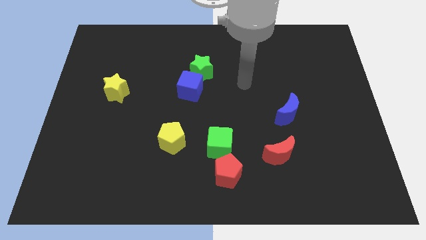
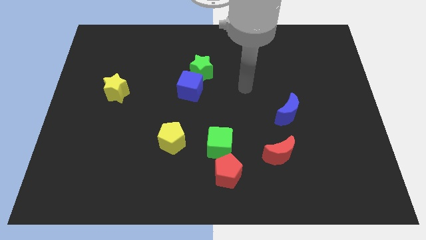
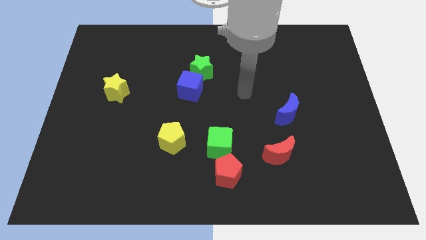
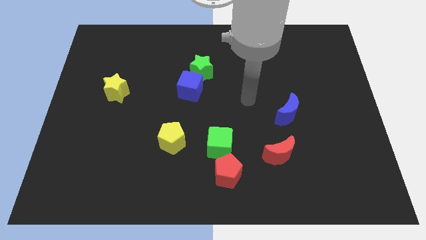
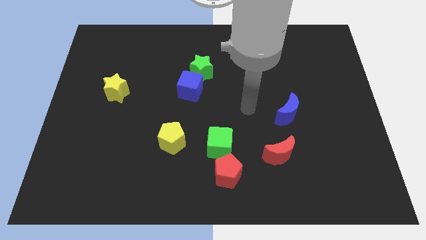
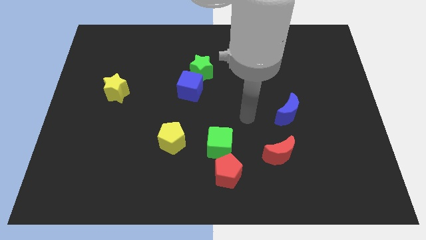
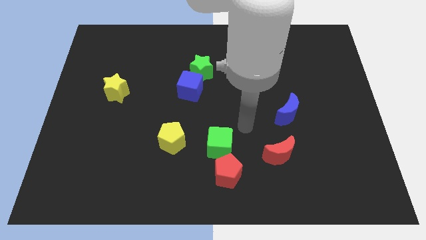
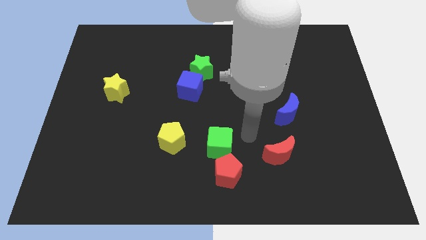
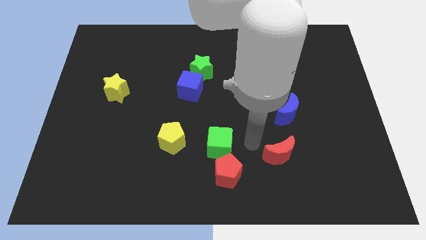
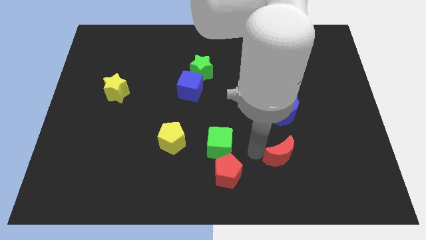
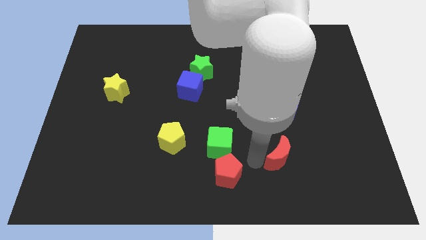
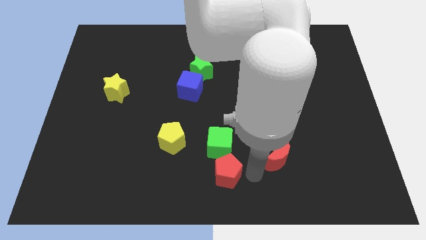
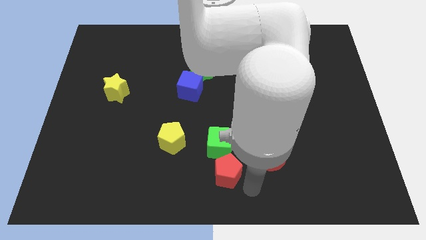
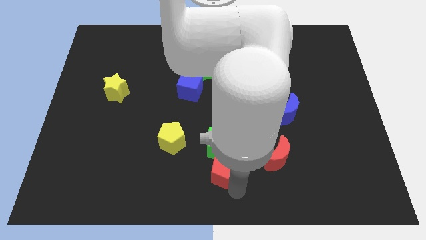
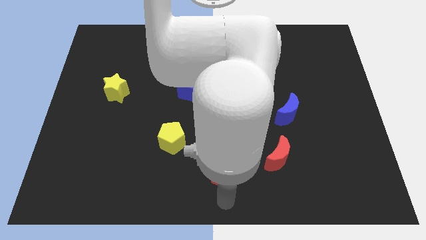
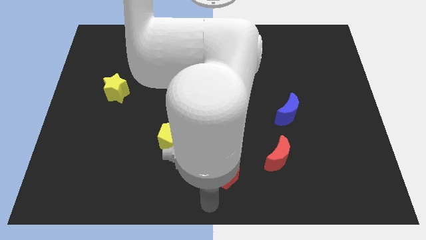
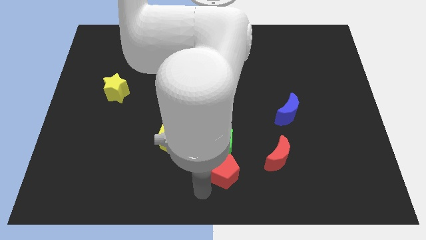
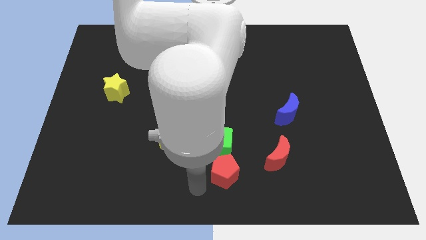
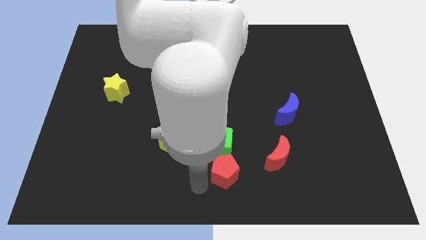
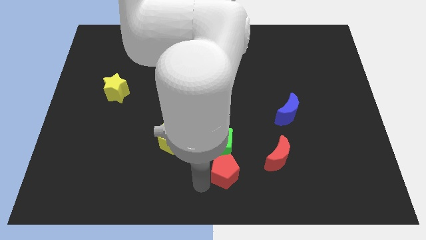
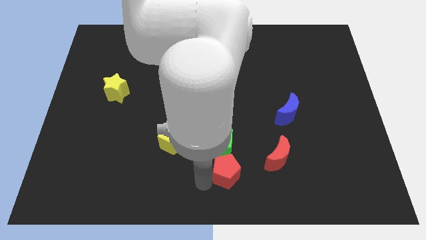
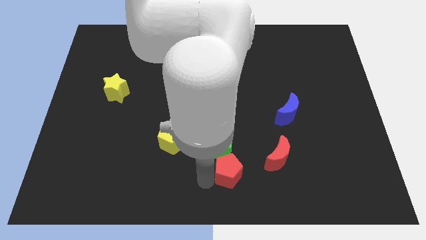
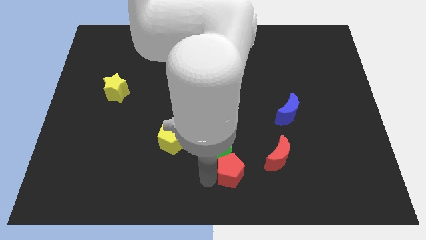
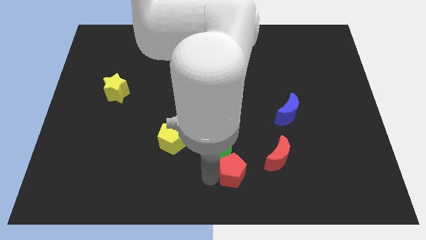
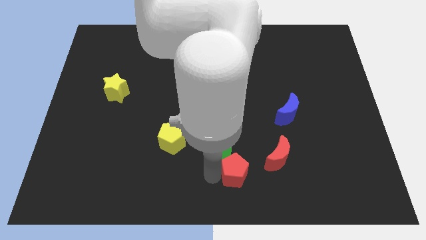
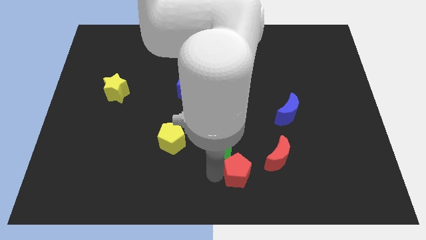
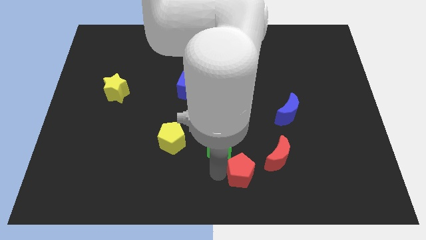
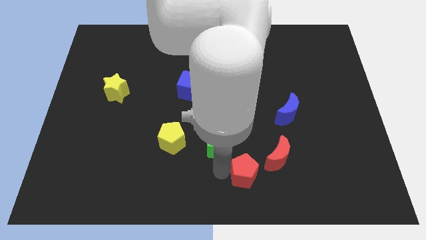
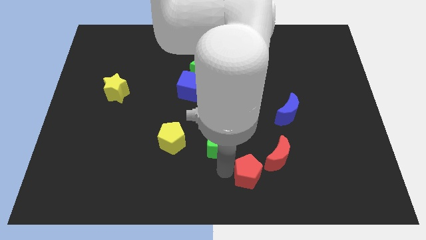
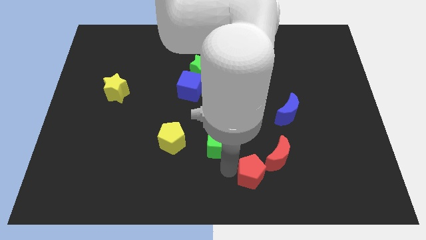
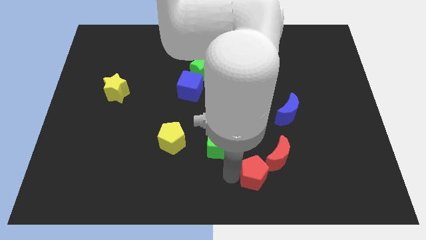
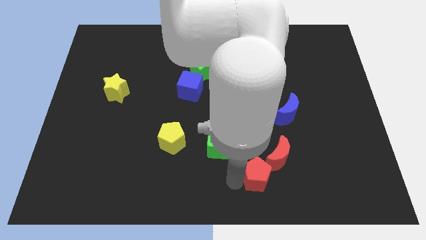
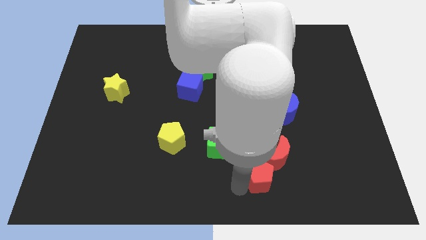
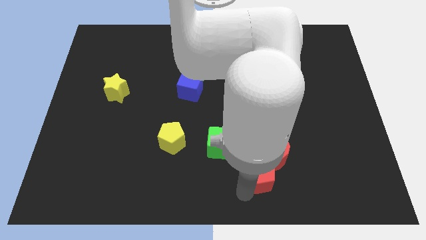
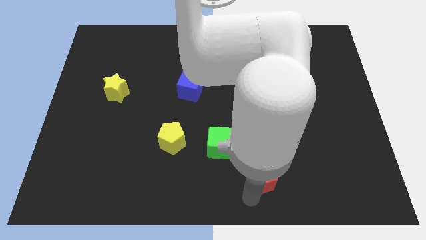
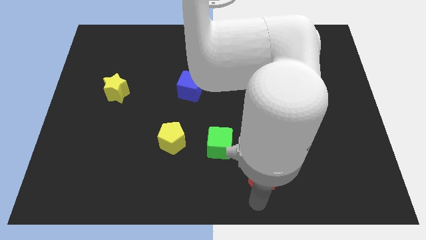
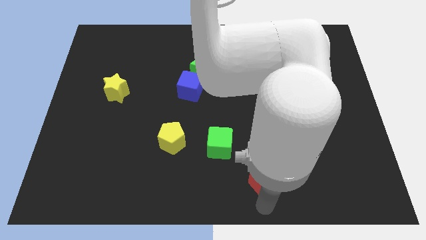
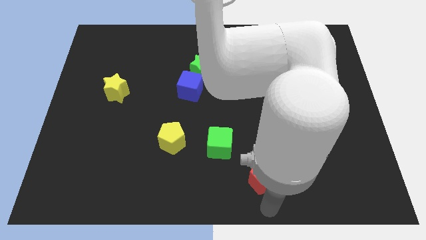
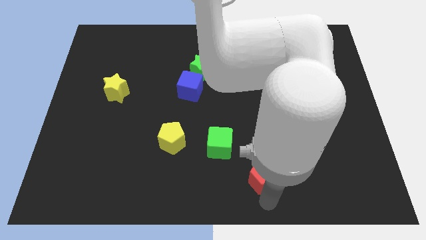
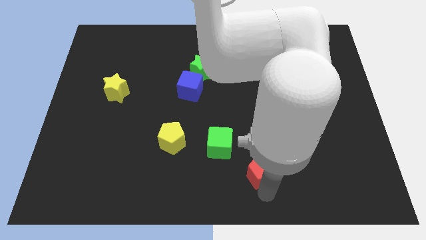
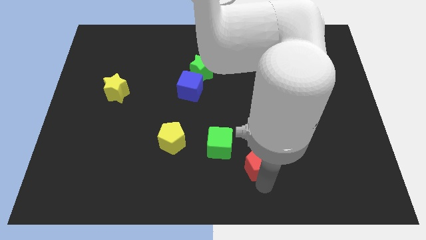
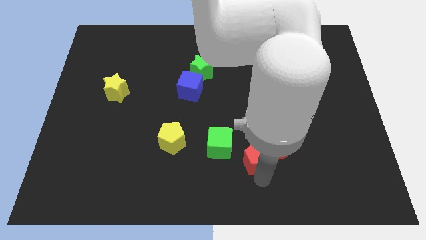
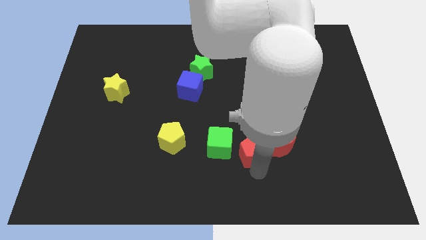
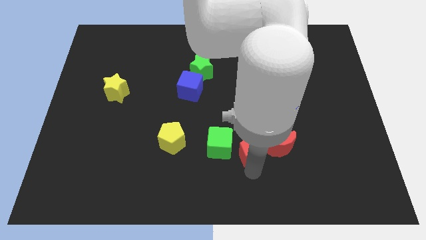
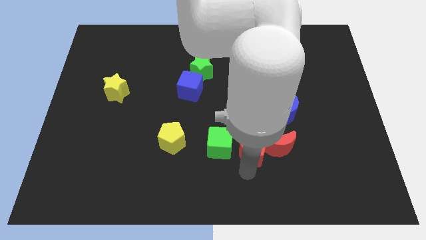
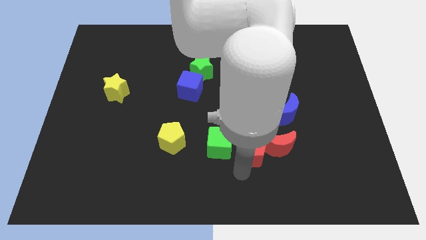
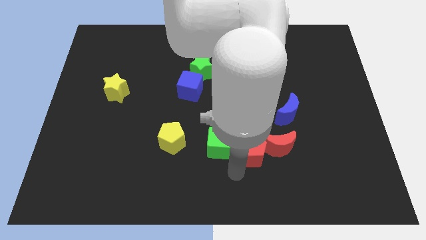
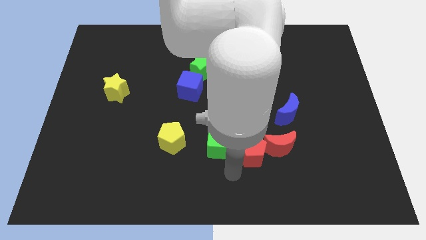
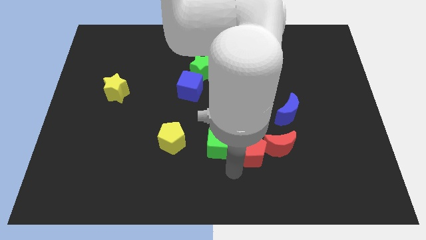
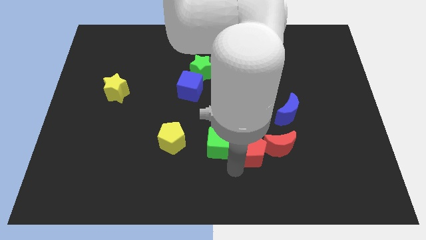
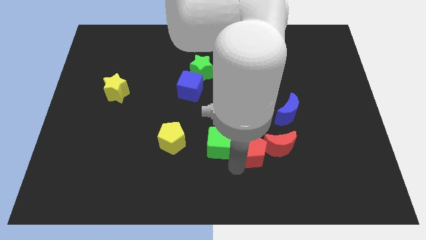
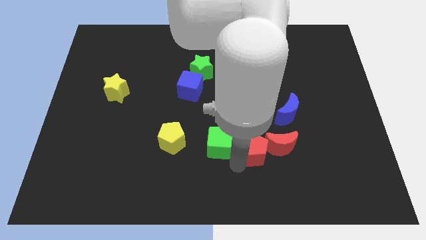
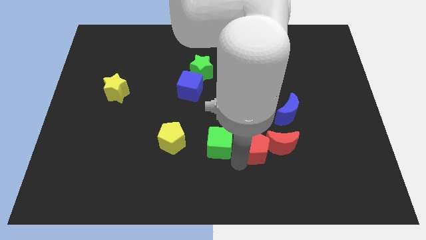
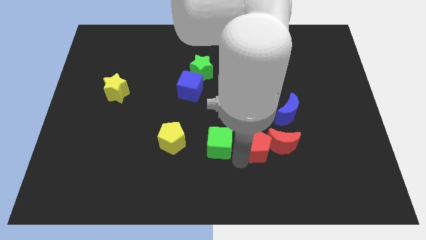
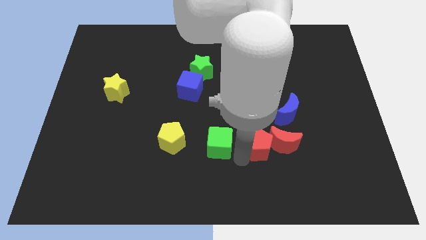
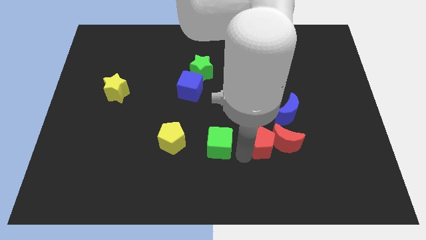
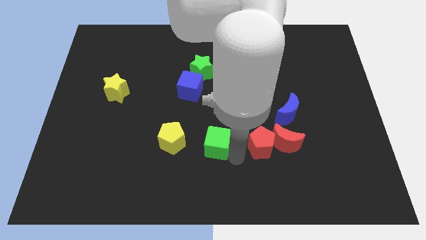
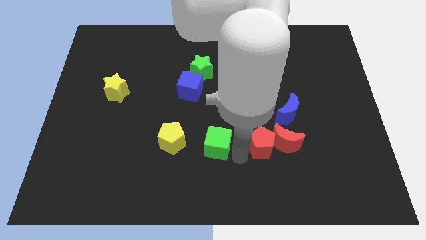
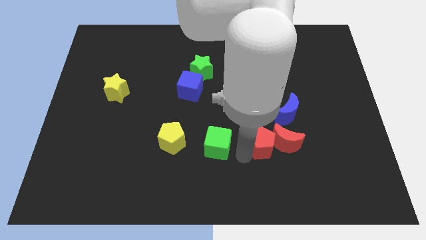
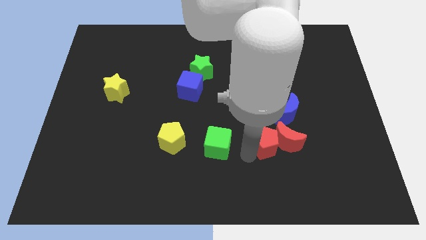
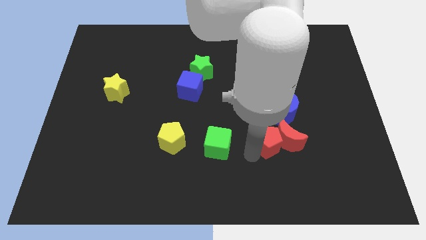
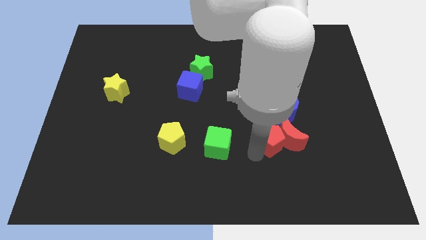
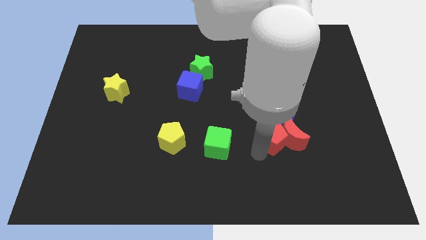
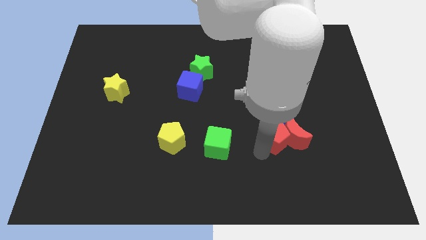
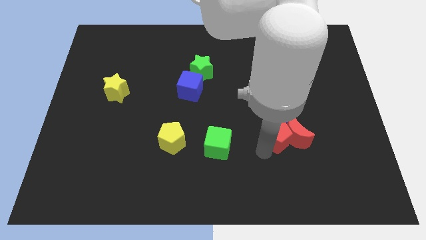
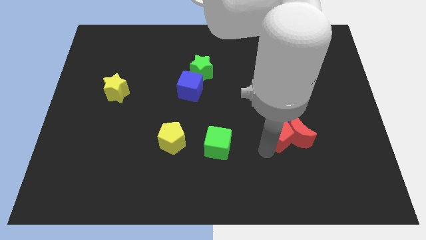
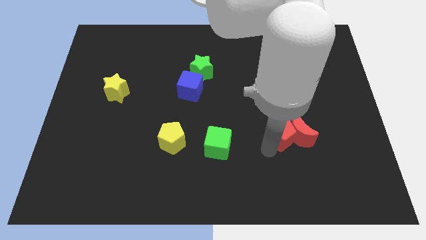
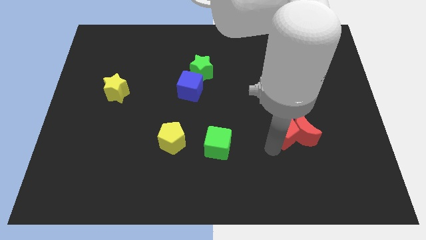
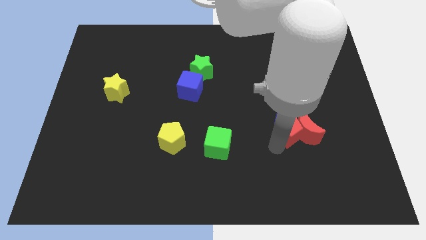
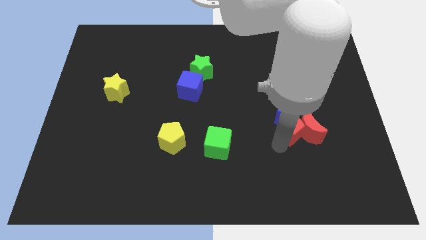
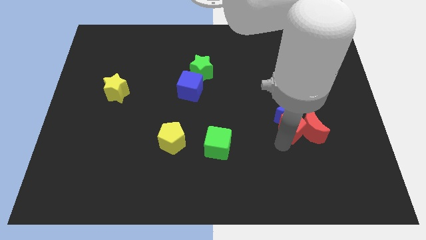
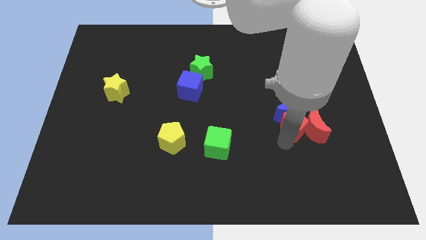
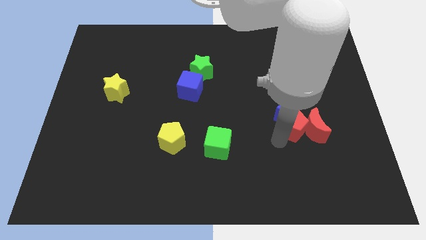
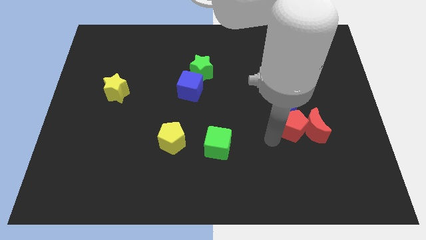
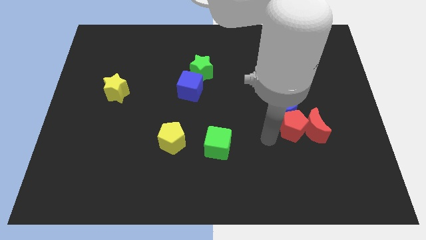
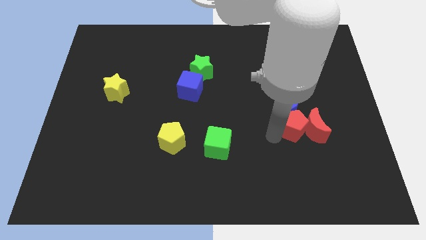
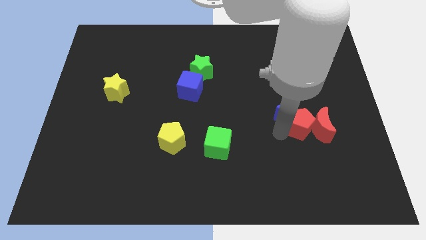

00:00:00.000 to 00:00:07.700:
move the red pentagon diagonally up and right

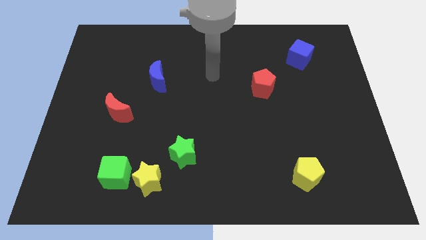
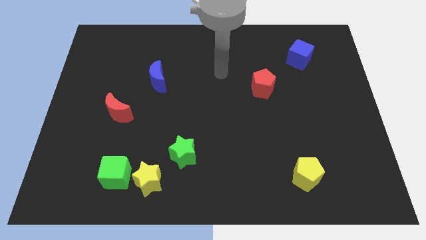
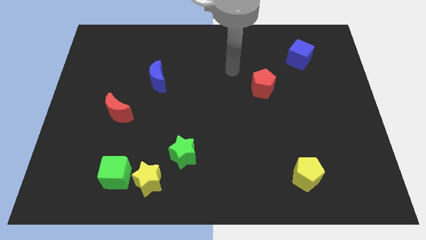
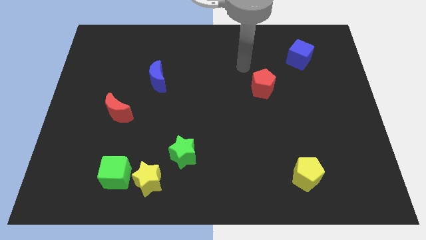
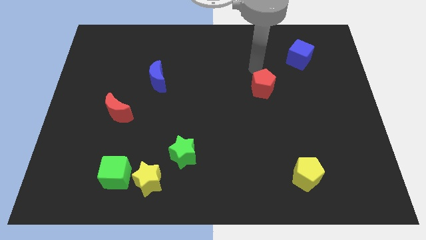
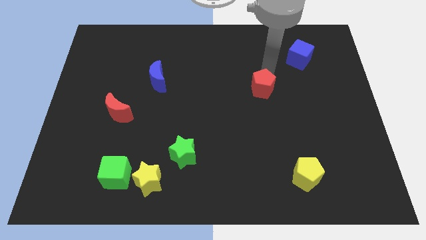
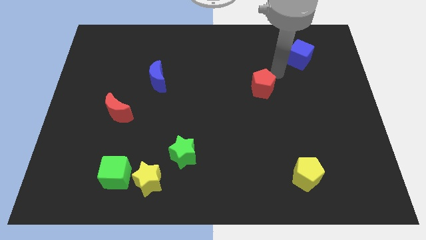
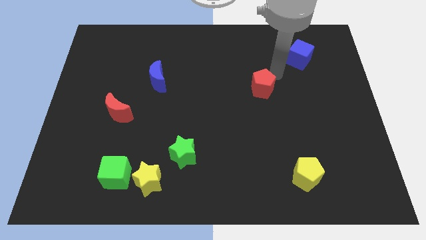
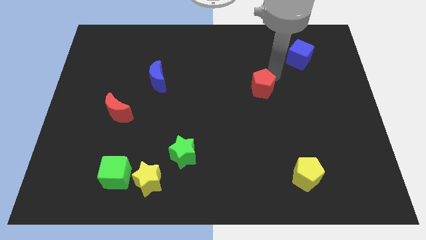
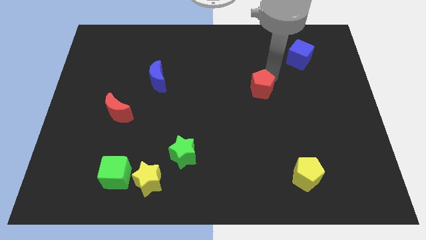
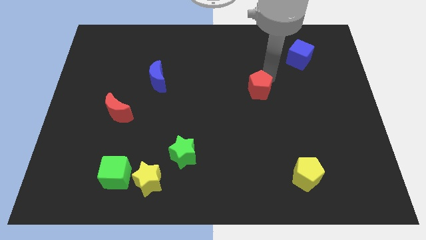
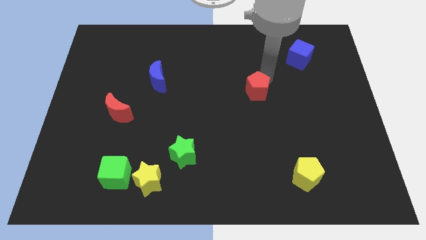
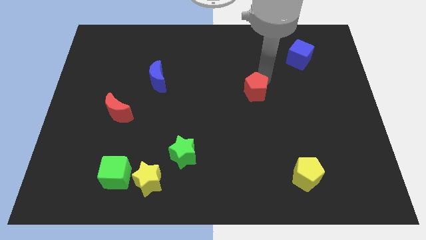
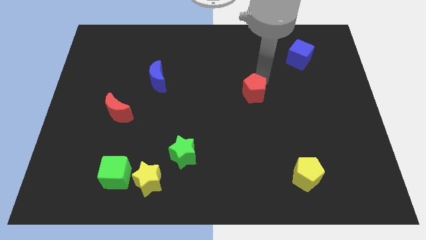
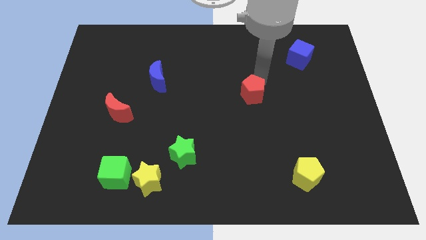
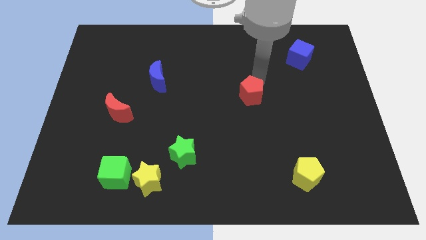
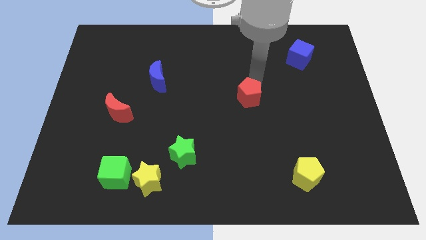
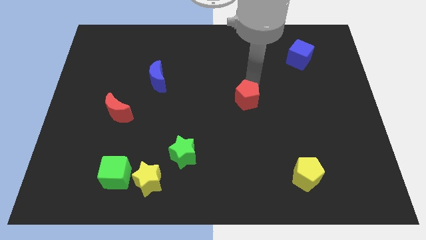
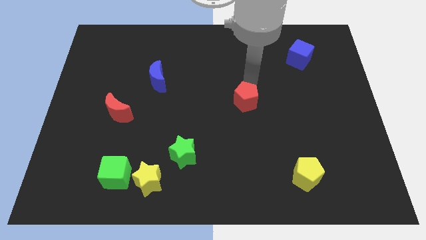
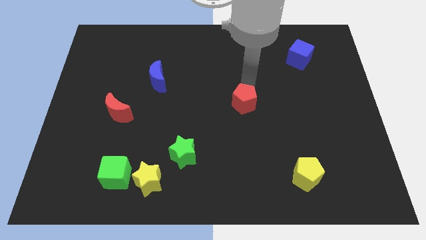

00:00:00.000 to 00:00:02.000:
slide the red pentagon slightly downwards and left diagonally
